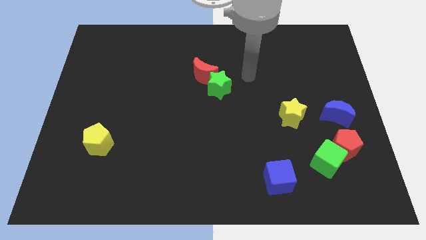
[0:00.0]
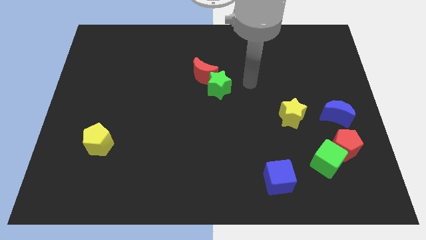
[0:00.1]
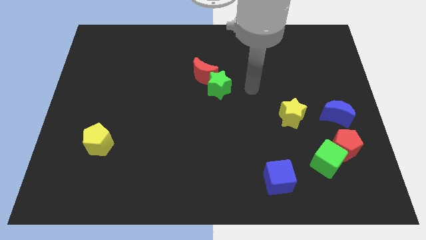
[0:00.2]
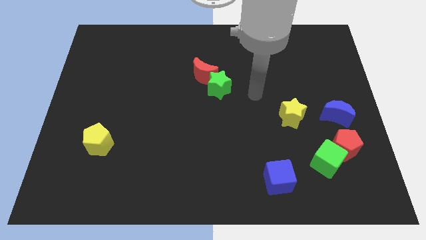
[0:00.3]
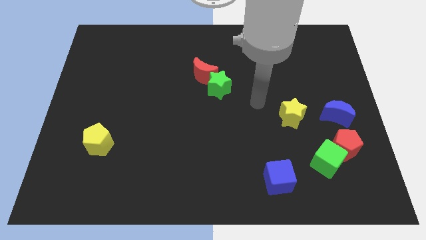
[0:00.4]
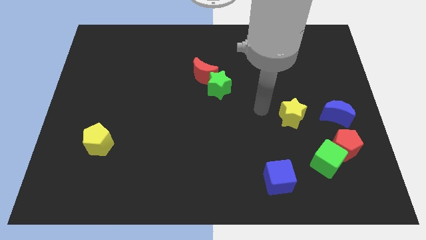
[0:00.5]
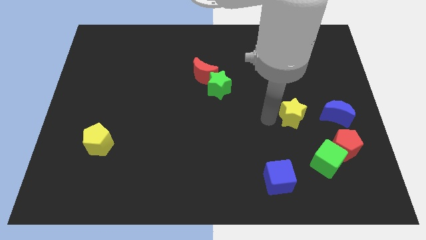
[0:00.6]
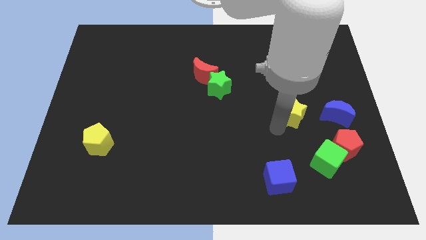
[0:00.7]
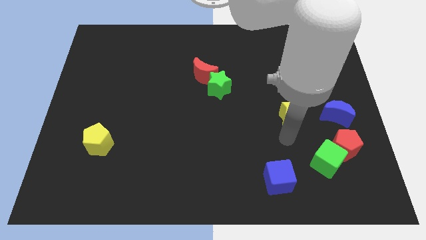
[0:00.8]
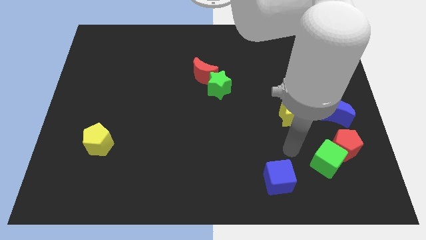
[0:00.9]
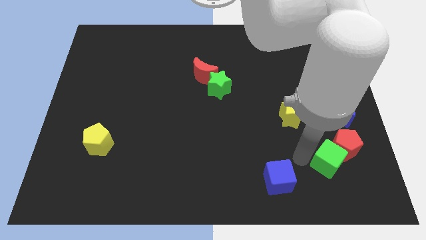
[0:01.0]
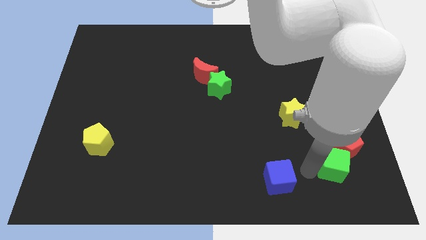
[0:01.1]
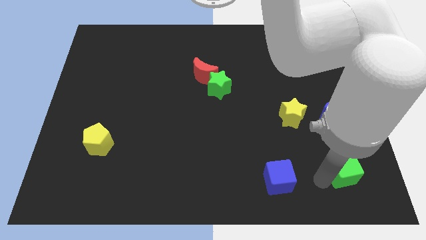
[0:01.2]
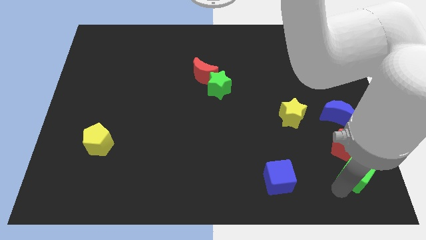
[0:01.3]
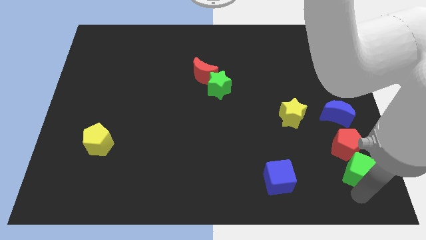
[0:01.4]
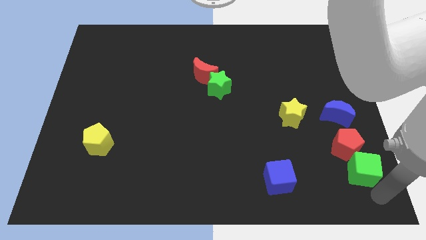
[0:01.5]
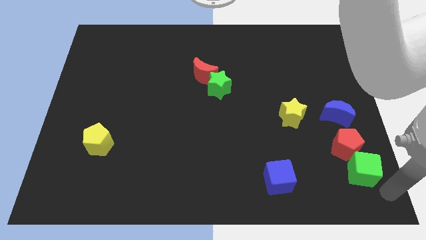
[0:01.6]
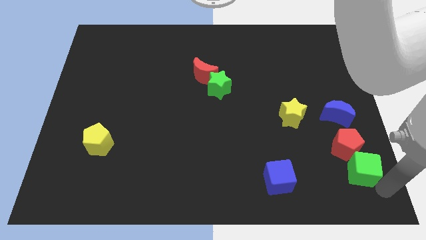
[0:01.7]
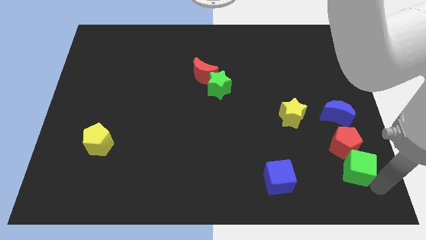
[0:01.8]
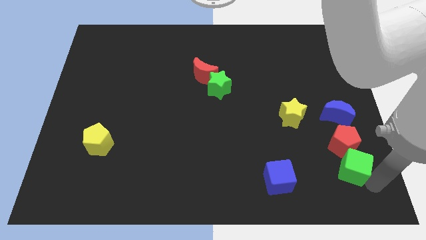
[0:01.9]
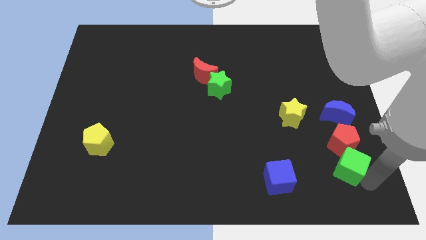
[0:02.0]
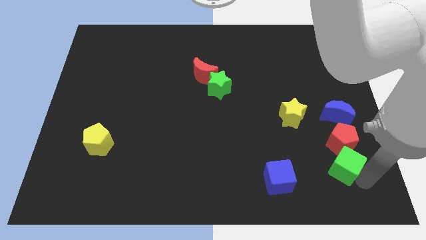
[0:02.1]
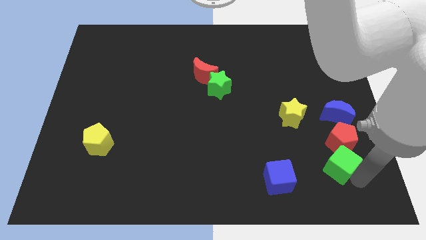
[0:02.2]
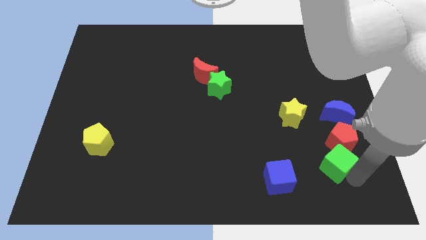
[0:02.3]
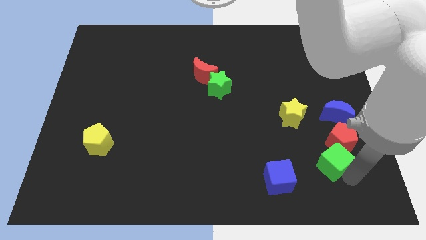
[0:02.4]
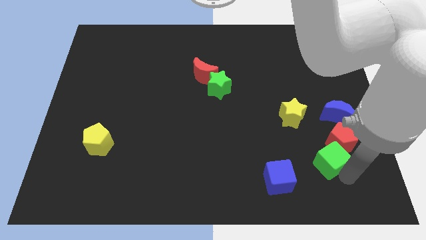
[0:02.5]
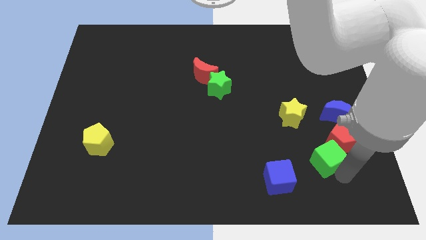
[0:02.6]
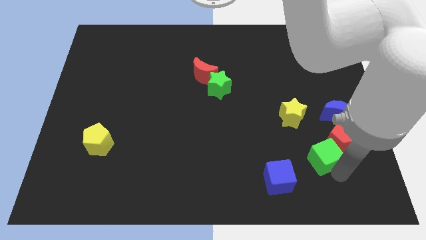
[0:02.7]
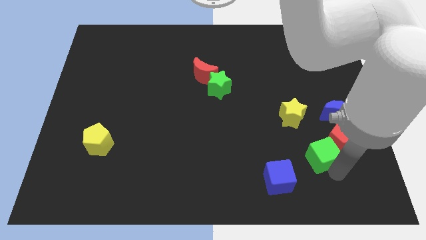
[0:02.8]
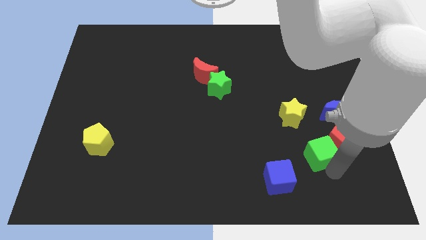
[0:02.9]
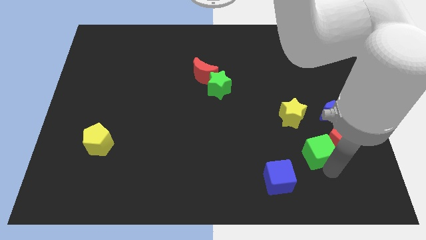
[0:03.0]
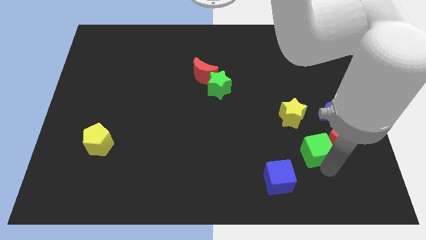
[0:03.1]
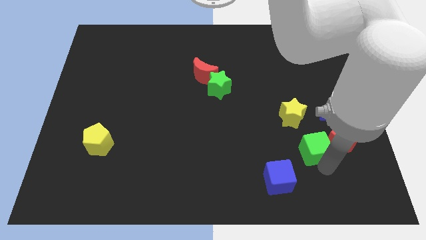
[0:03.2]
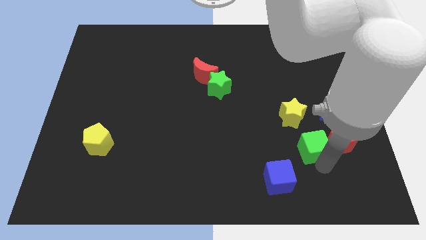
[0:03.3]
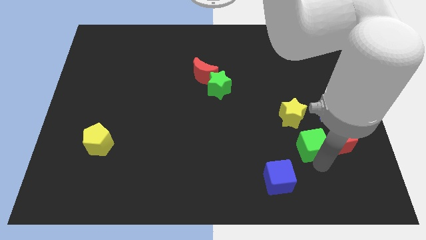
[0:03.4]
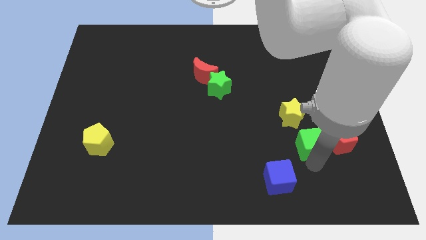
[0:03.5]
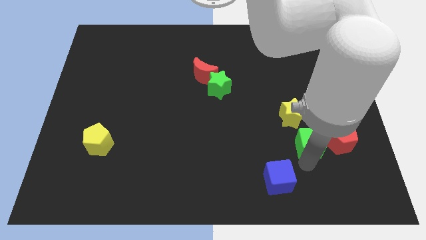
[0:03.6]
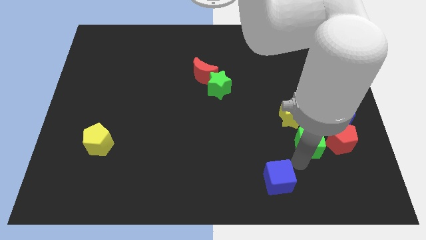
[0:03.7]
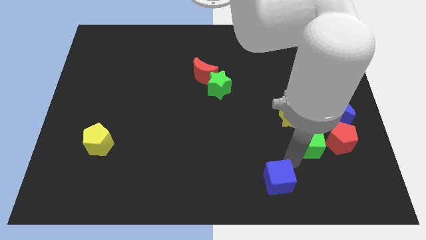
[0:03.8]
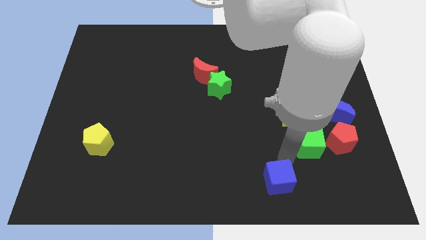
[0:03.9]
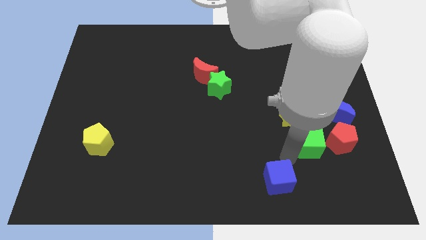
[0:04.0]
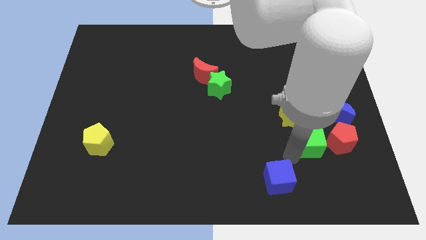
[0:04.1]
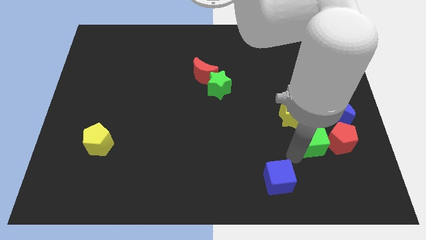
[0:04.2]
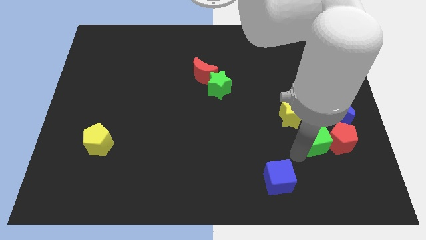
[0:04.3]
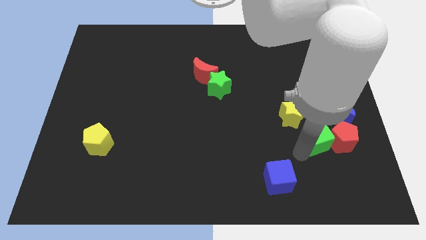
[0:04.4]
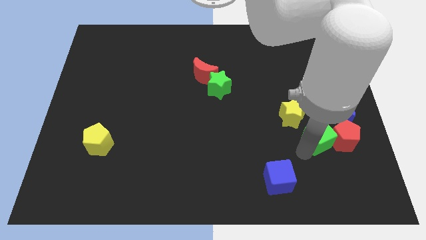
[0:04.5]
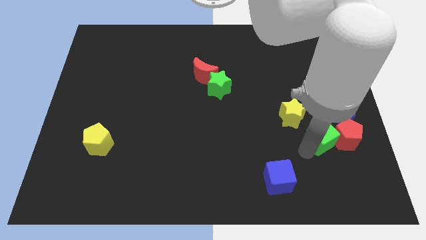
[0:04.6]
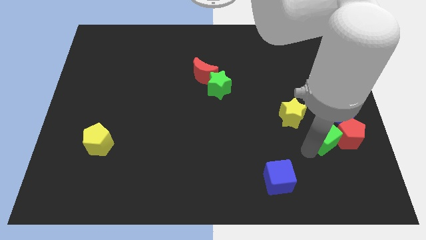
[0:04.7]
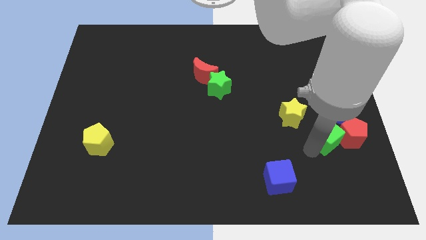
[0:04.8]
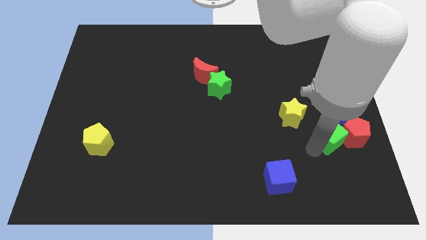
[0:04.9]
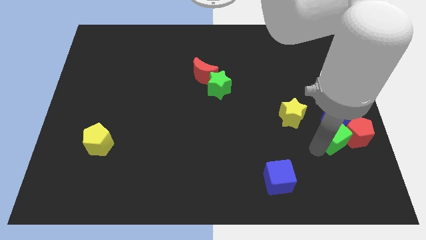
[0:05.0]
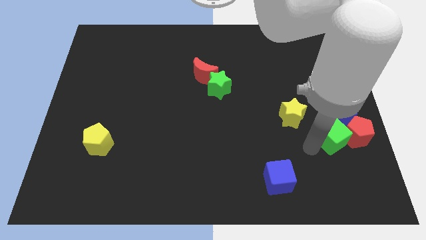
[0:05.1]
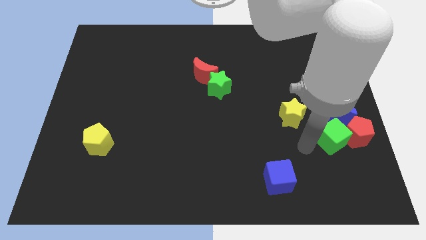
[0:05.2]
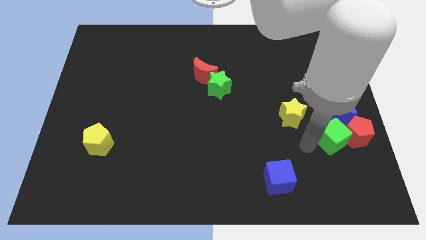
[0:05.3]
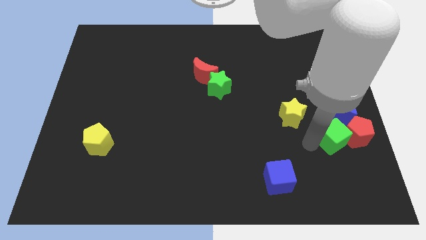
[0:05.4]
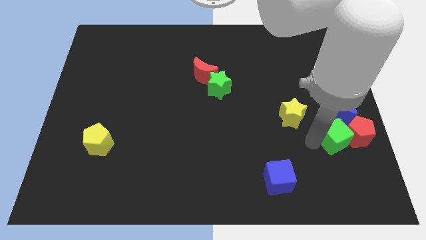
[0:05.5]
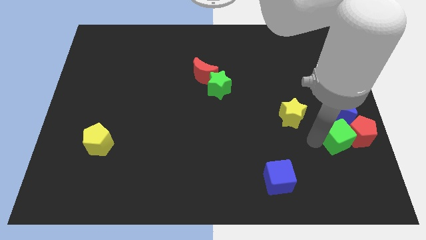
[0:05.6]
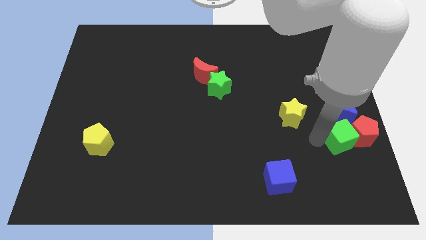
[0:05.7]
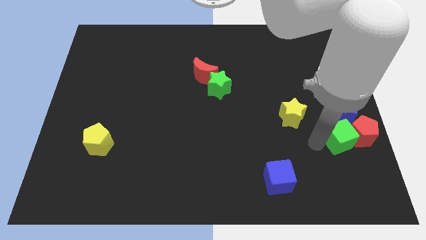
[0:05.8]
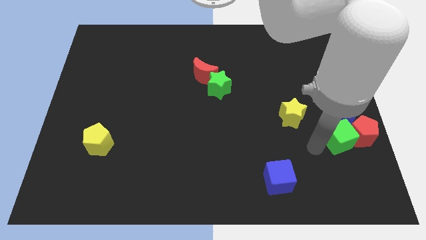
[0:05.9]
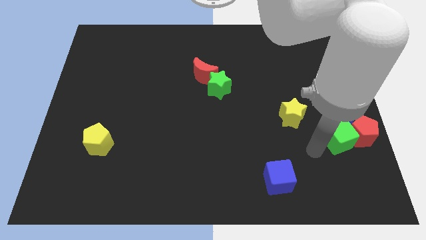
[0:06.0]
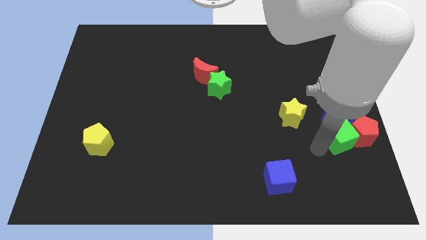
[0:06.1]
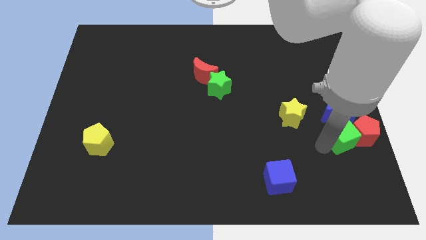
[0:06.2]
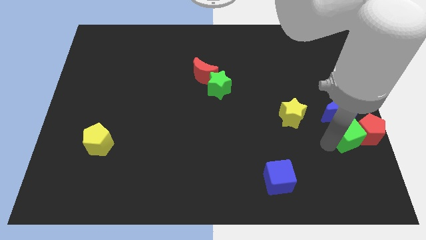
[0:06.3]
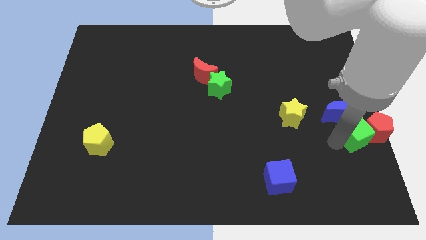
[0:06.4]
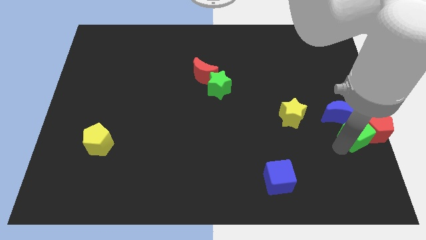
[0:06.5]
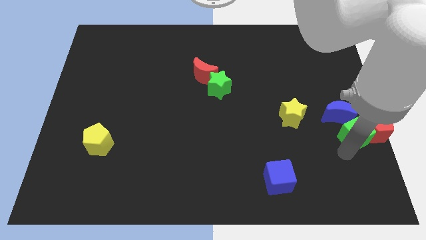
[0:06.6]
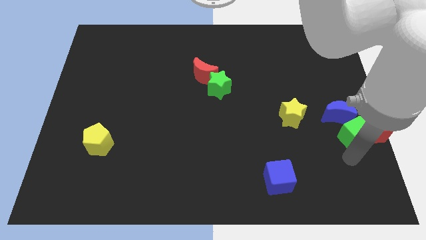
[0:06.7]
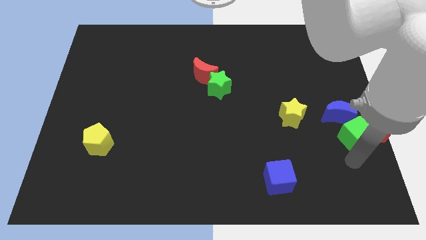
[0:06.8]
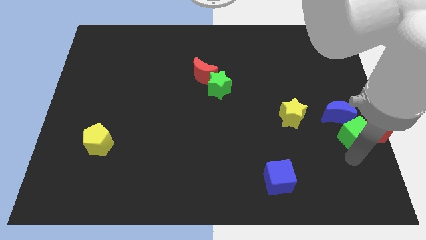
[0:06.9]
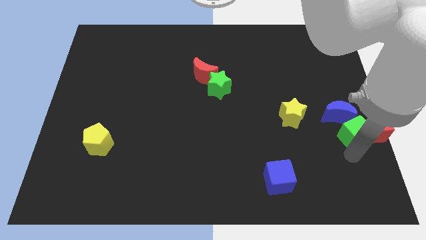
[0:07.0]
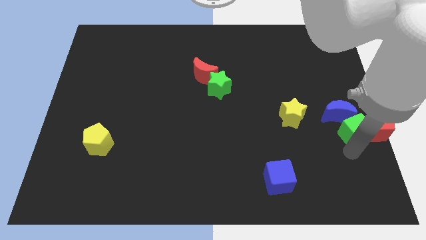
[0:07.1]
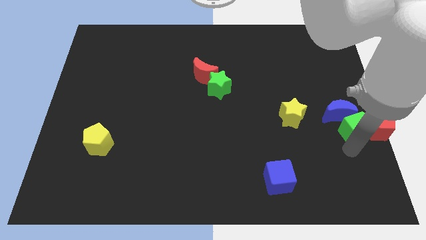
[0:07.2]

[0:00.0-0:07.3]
put the green cube just right of the yellow star
